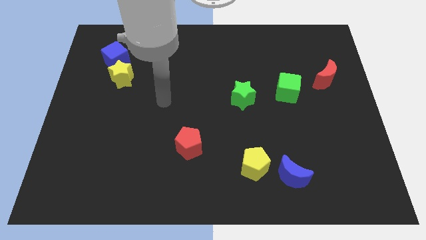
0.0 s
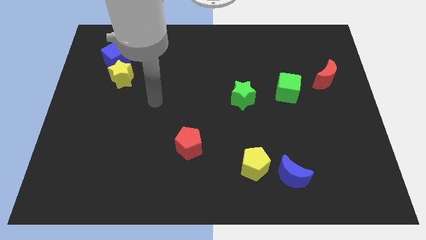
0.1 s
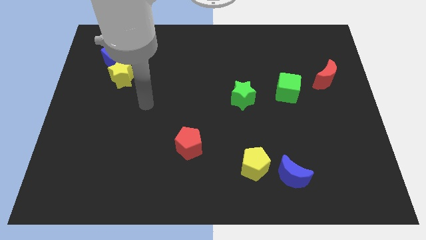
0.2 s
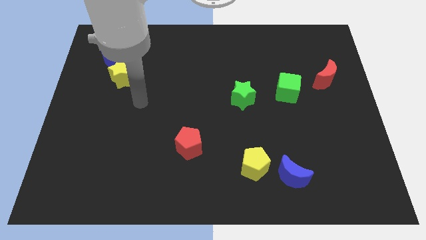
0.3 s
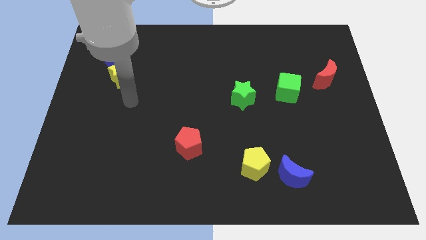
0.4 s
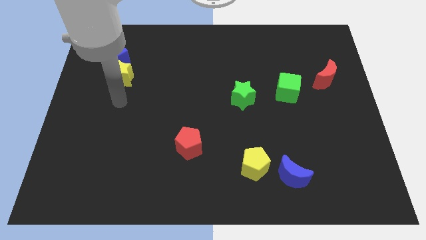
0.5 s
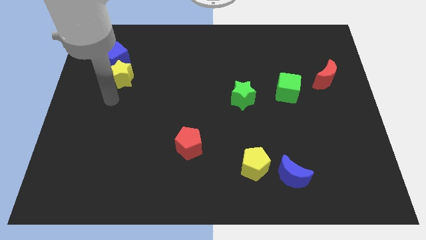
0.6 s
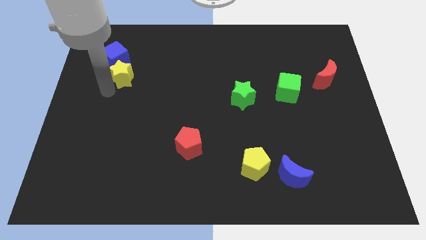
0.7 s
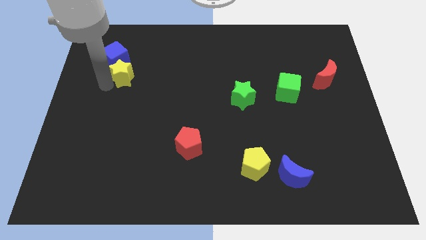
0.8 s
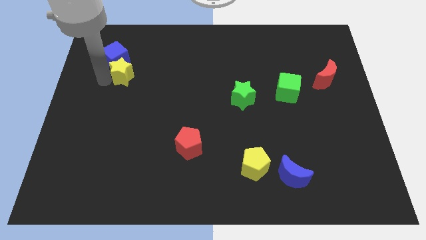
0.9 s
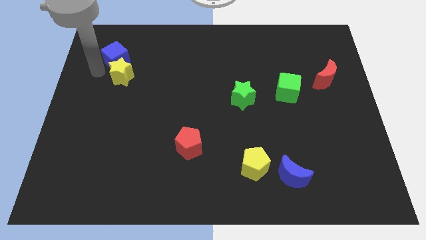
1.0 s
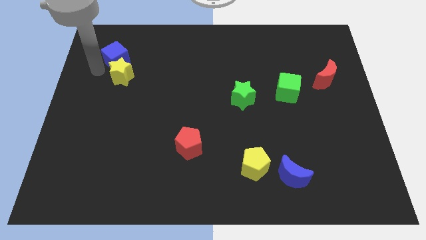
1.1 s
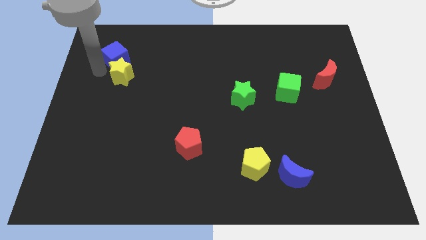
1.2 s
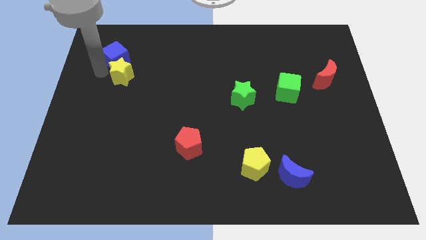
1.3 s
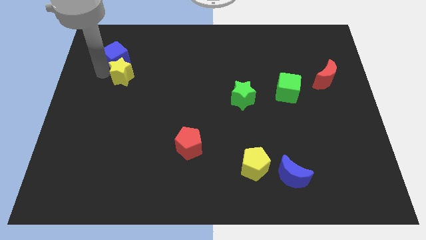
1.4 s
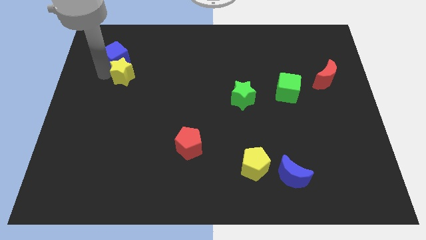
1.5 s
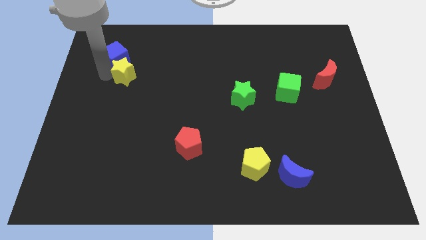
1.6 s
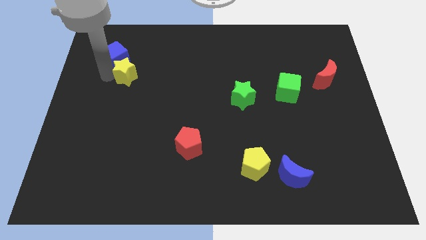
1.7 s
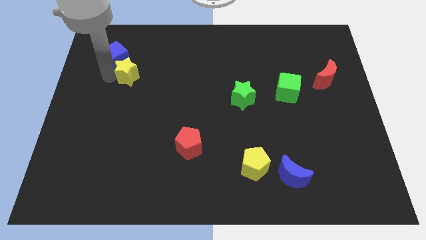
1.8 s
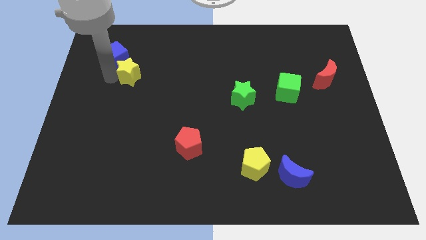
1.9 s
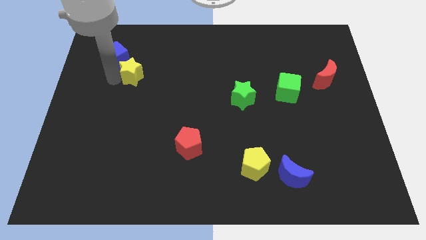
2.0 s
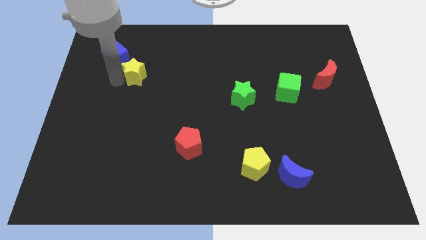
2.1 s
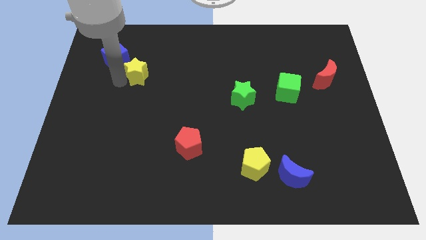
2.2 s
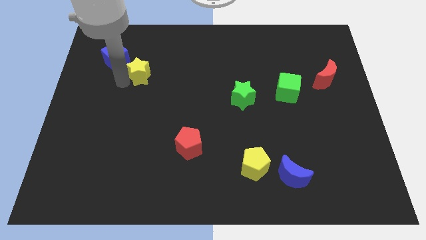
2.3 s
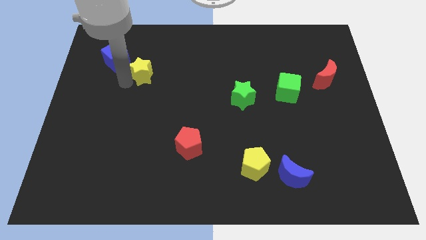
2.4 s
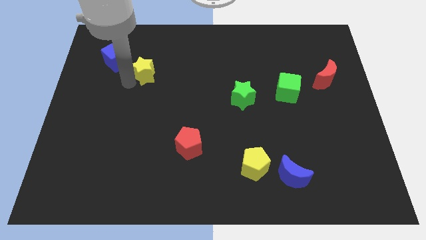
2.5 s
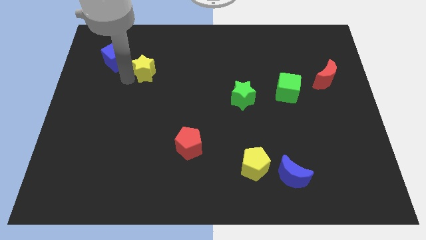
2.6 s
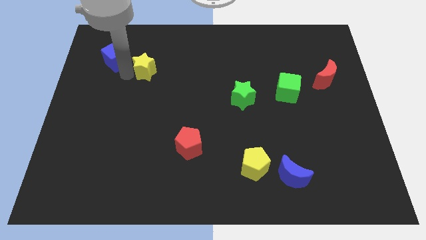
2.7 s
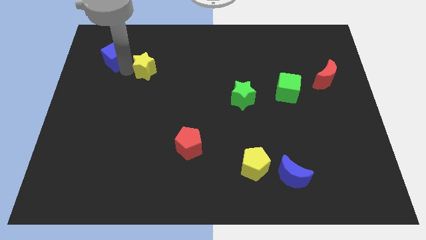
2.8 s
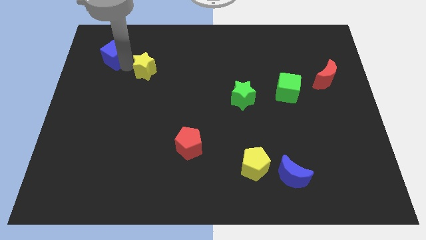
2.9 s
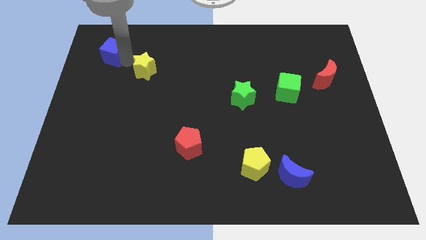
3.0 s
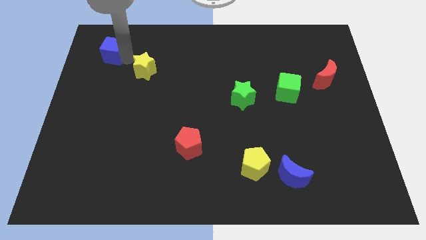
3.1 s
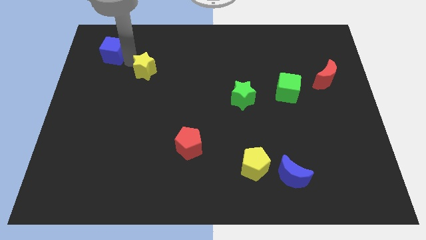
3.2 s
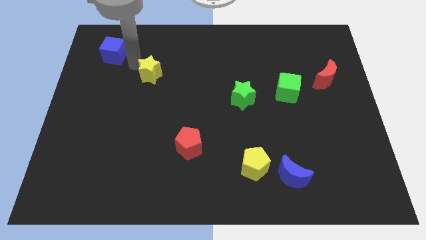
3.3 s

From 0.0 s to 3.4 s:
slightly push the yellow star right

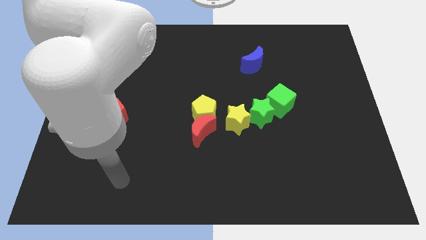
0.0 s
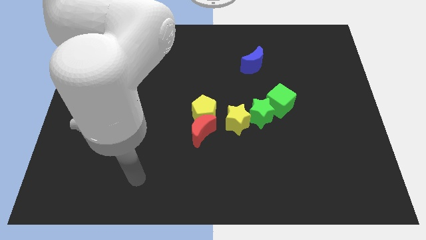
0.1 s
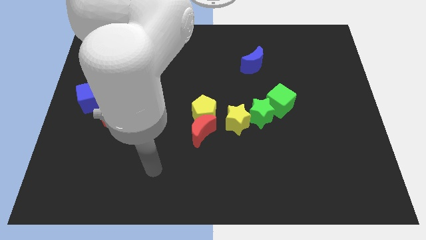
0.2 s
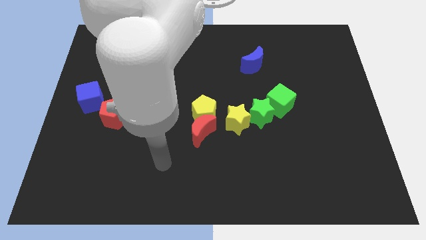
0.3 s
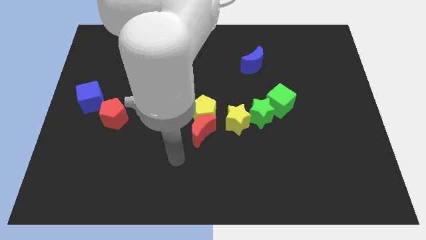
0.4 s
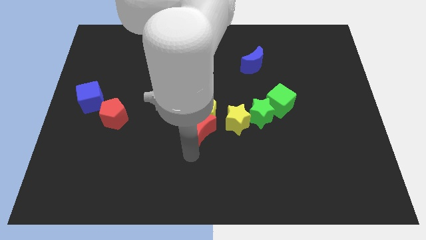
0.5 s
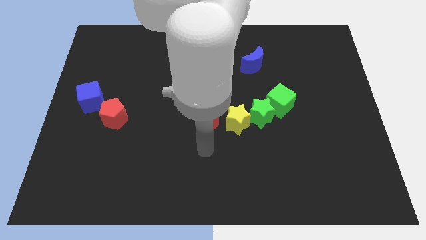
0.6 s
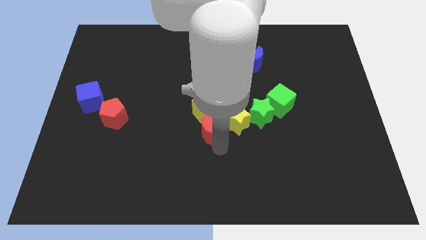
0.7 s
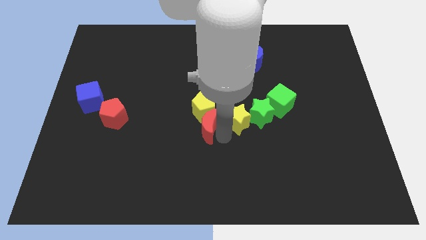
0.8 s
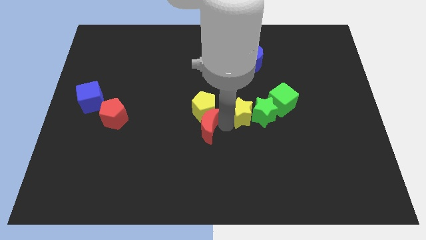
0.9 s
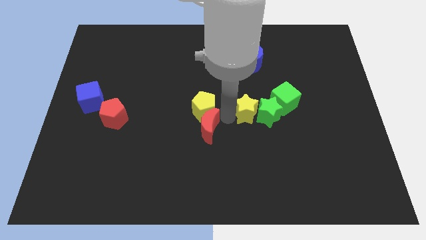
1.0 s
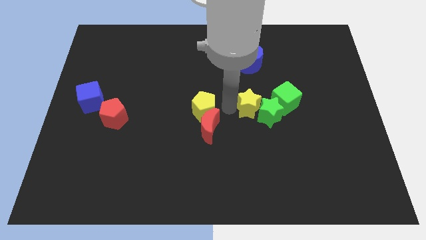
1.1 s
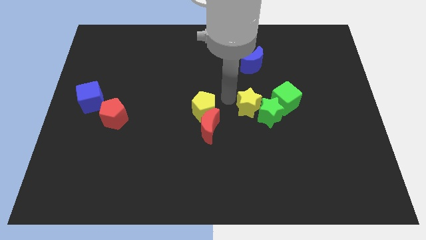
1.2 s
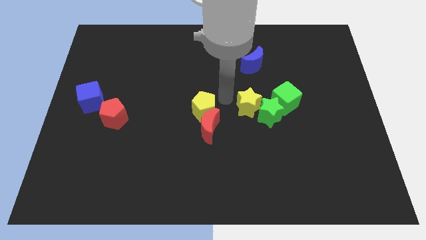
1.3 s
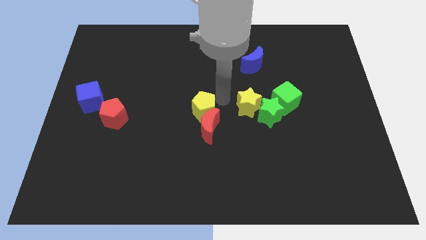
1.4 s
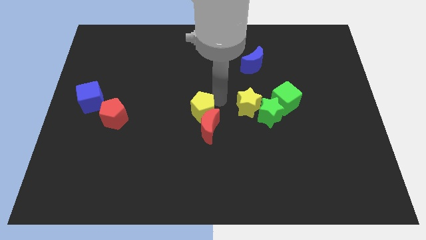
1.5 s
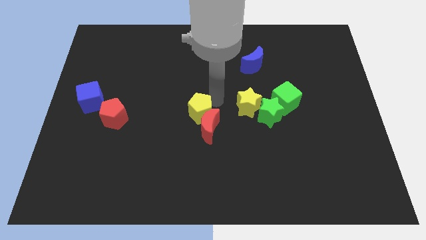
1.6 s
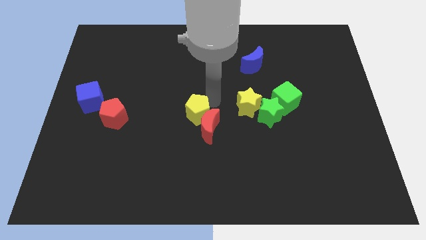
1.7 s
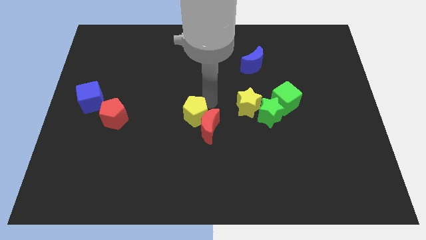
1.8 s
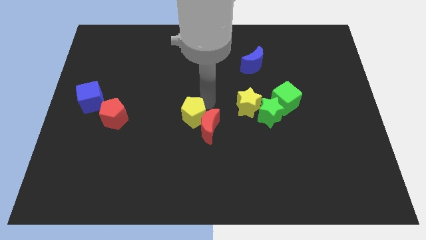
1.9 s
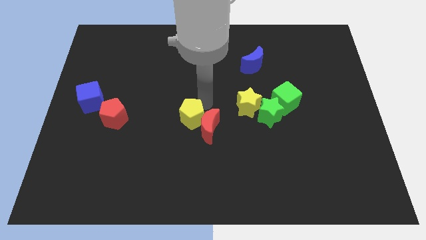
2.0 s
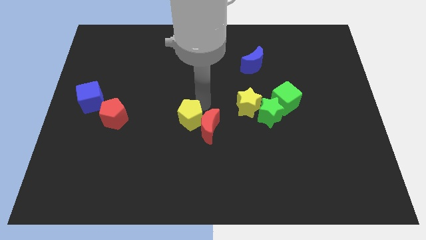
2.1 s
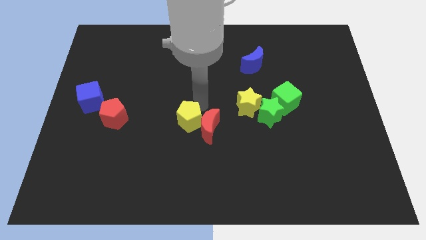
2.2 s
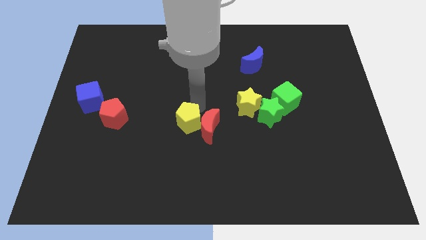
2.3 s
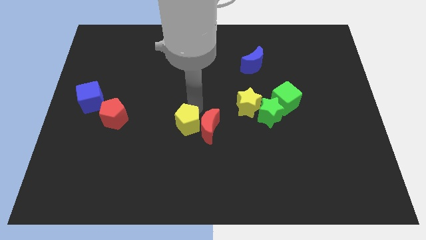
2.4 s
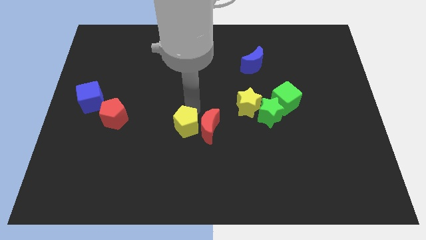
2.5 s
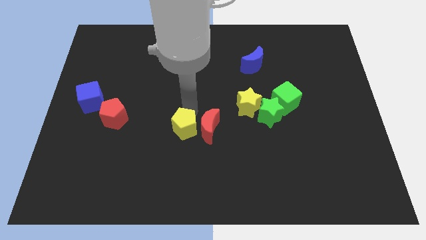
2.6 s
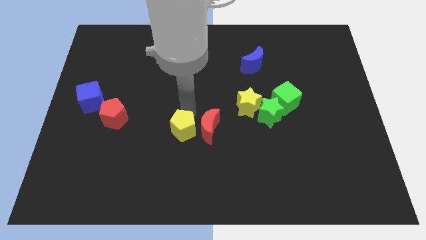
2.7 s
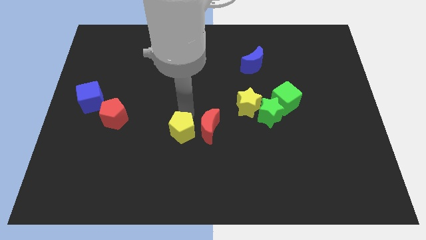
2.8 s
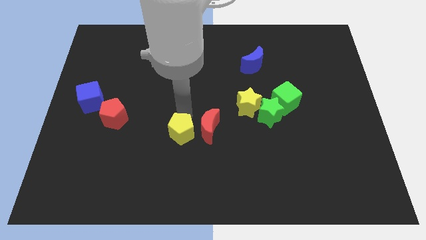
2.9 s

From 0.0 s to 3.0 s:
slightly slide the yellow pentagon diagonally down and left

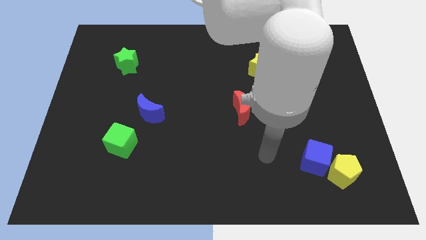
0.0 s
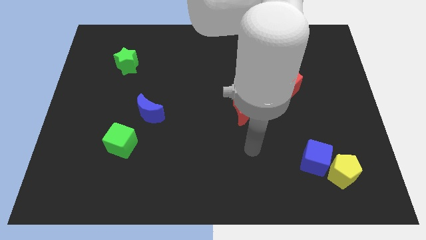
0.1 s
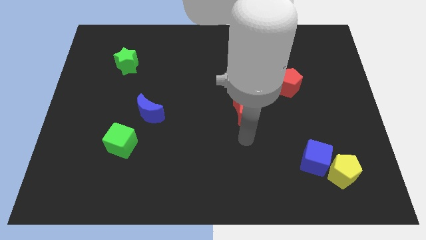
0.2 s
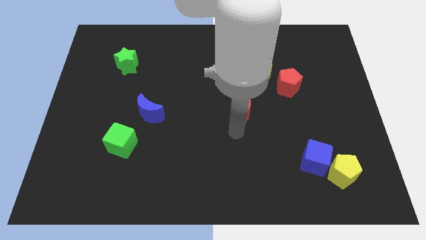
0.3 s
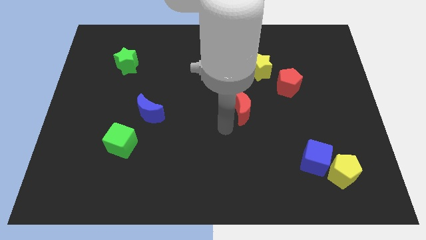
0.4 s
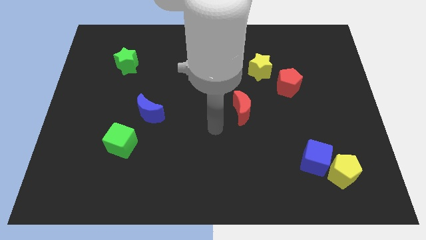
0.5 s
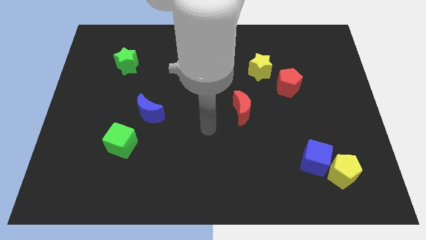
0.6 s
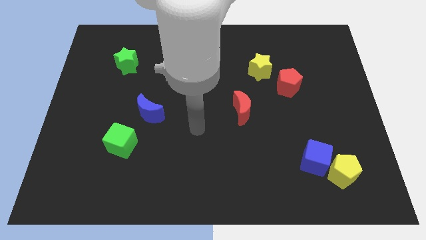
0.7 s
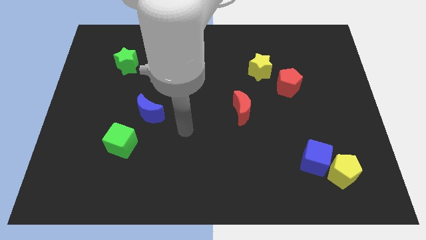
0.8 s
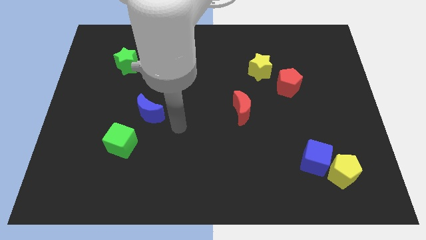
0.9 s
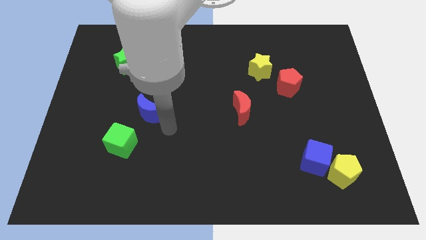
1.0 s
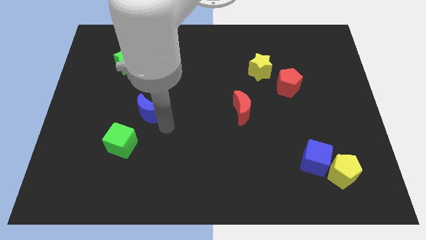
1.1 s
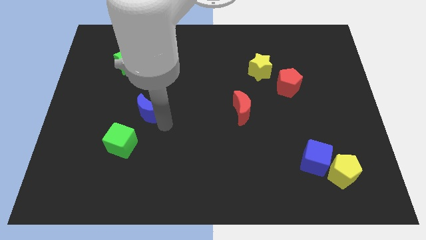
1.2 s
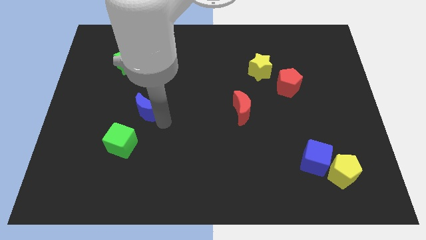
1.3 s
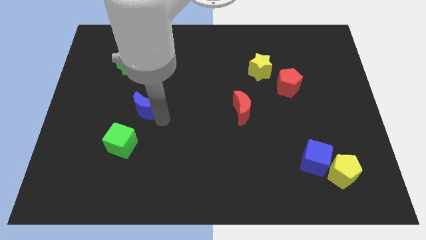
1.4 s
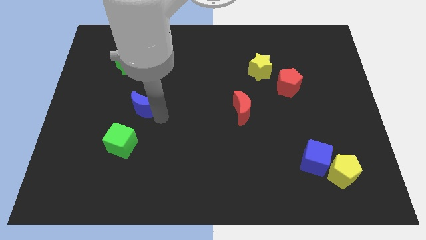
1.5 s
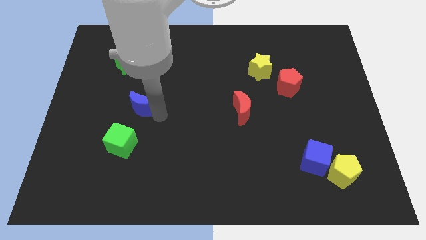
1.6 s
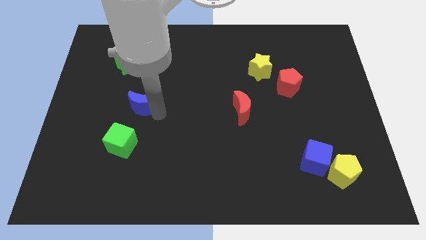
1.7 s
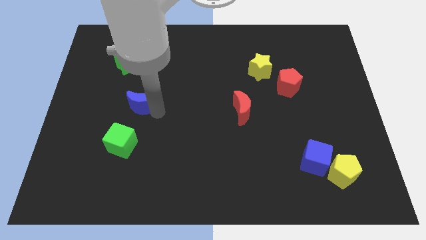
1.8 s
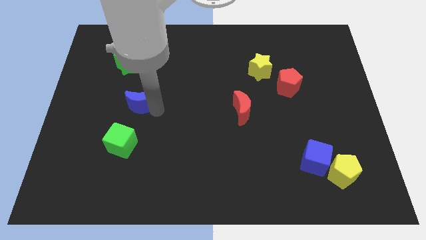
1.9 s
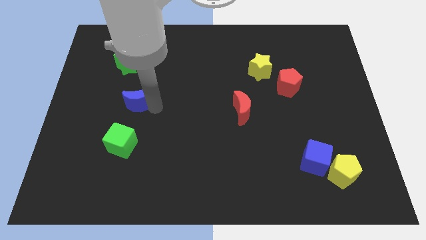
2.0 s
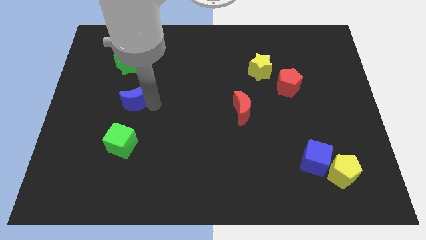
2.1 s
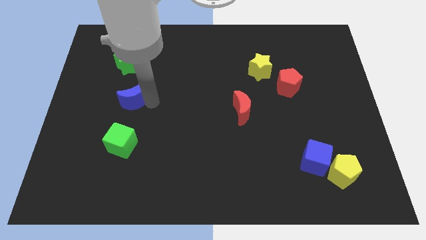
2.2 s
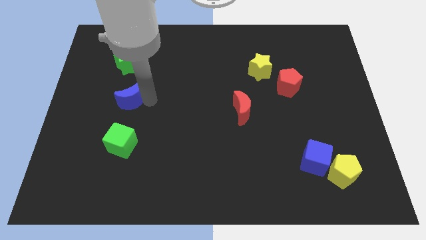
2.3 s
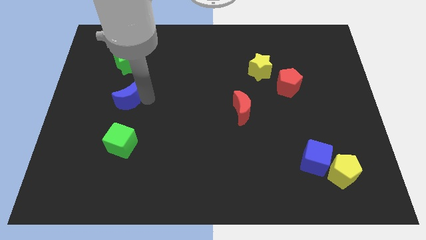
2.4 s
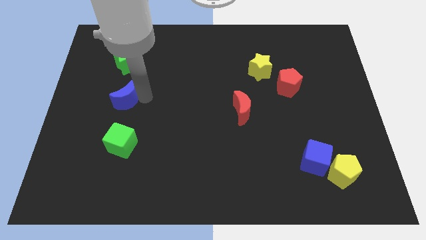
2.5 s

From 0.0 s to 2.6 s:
slide the blue moon up and left a bit
